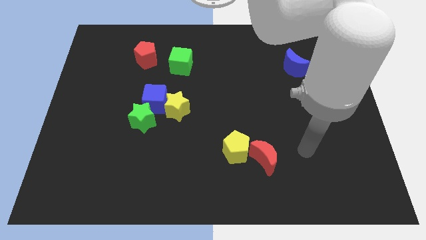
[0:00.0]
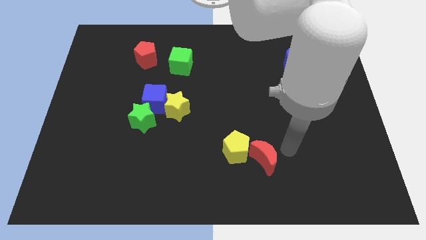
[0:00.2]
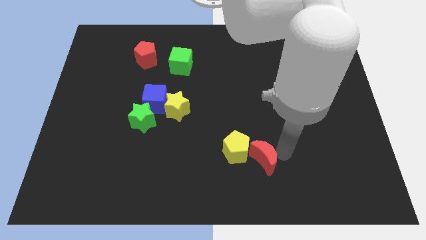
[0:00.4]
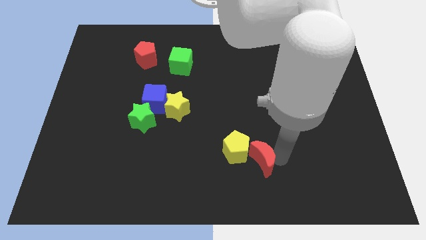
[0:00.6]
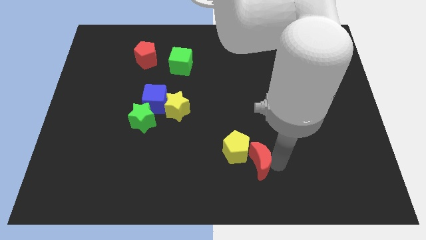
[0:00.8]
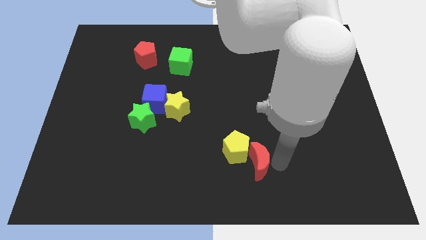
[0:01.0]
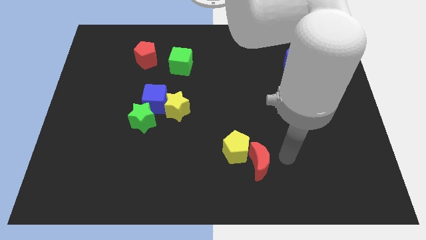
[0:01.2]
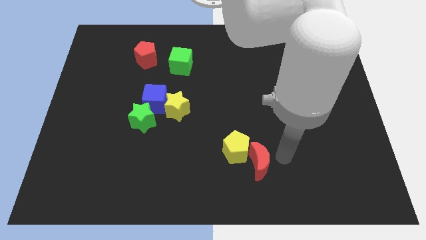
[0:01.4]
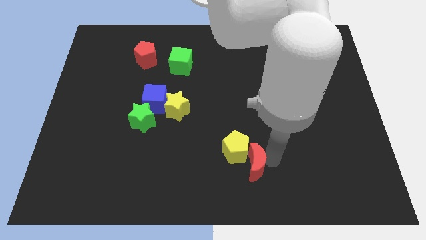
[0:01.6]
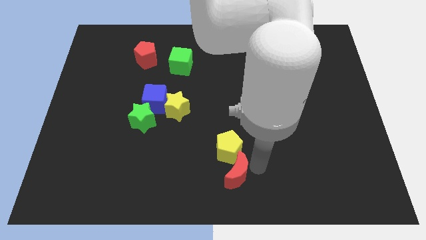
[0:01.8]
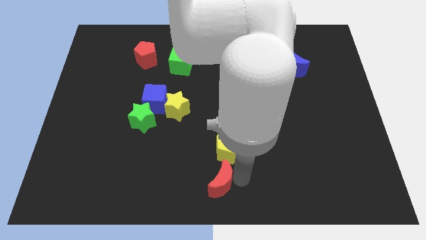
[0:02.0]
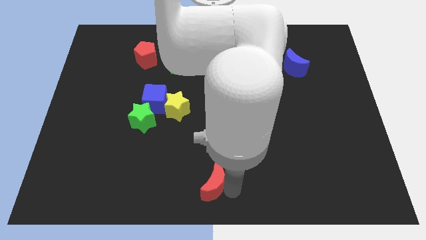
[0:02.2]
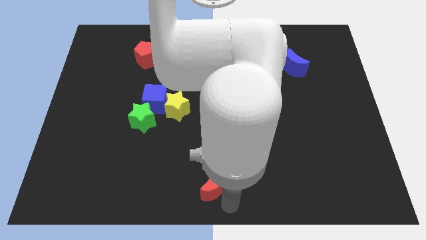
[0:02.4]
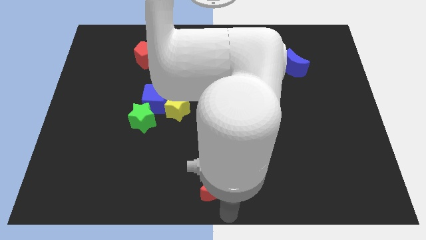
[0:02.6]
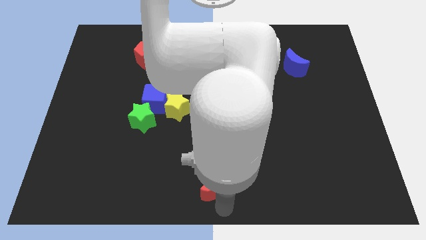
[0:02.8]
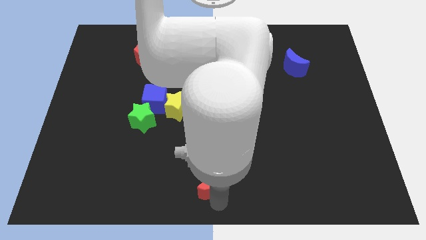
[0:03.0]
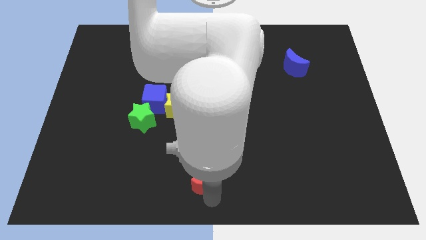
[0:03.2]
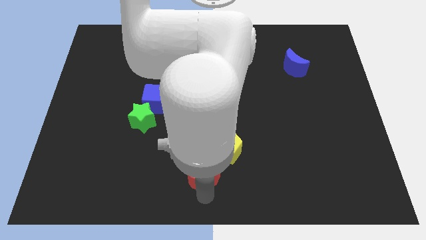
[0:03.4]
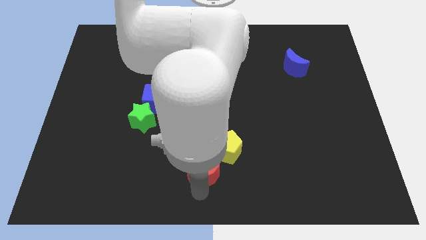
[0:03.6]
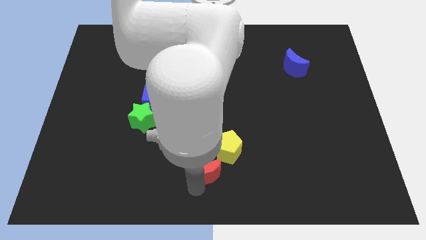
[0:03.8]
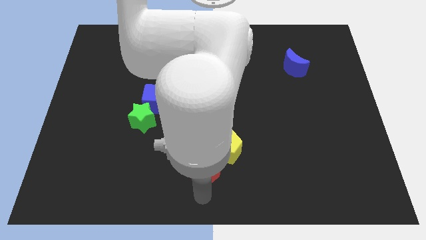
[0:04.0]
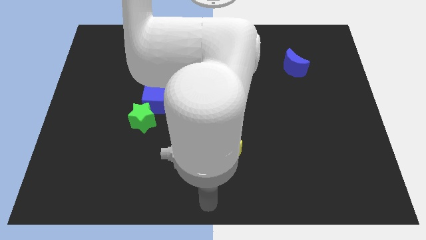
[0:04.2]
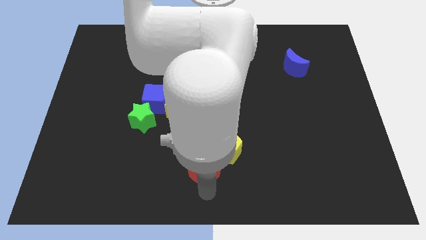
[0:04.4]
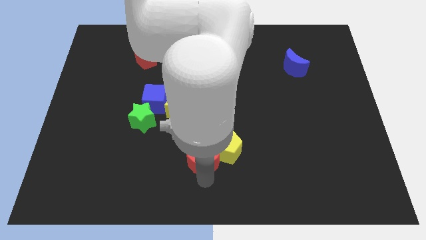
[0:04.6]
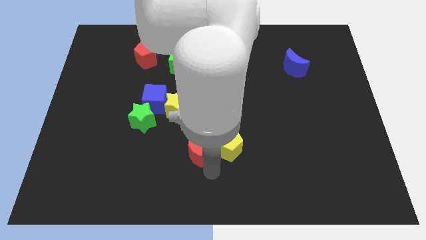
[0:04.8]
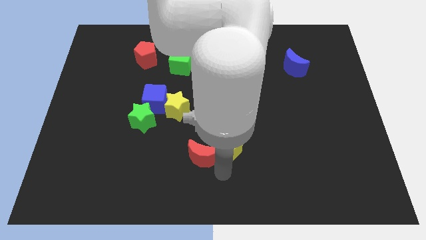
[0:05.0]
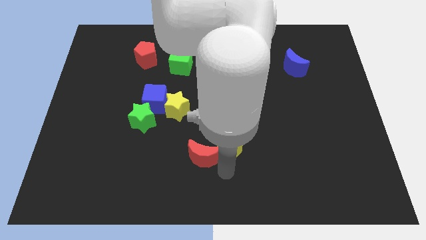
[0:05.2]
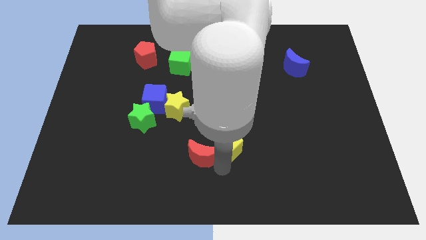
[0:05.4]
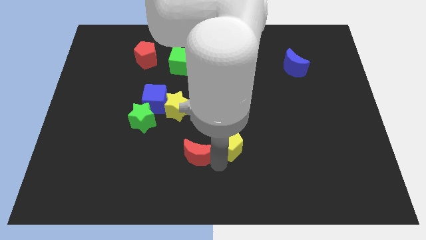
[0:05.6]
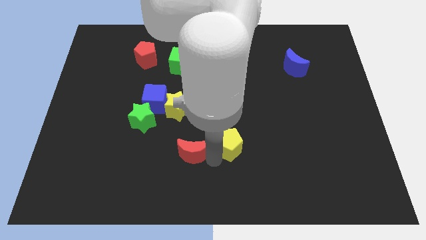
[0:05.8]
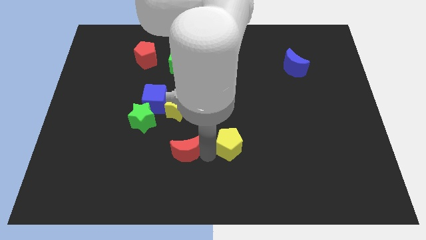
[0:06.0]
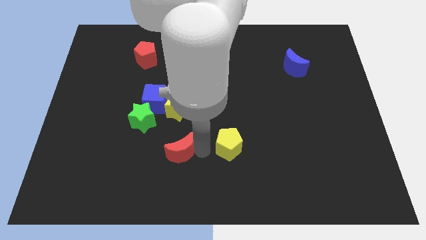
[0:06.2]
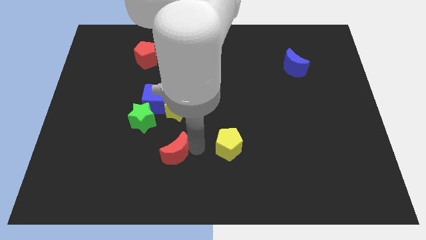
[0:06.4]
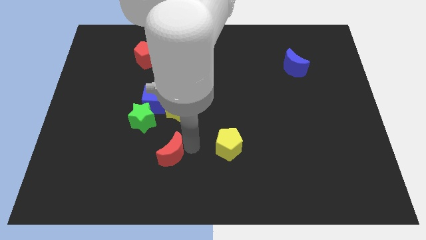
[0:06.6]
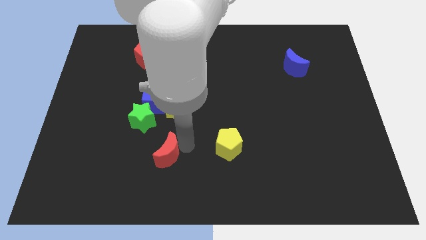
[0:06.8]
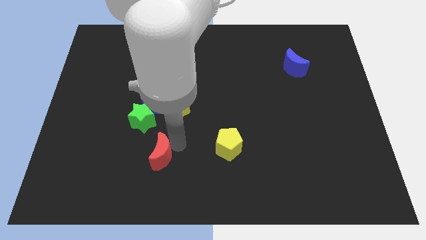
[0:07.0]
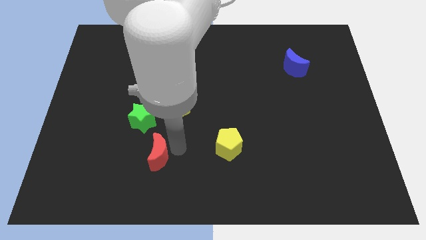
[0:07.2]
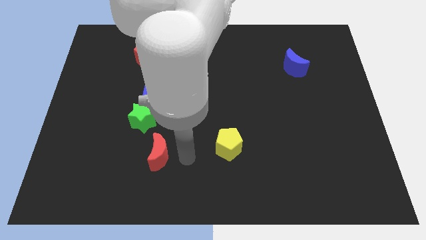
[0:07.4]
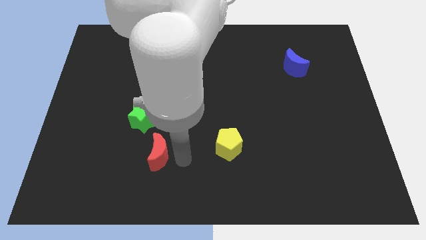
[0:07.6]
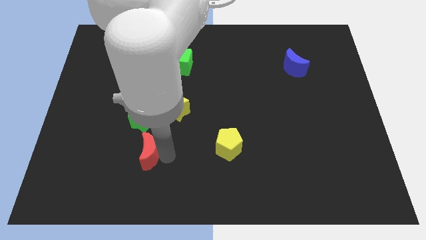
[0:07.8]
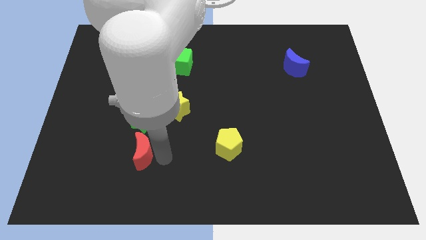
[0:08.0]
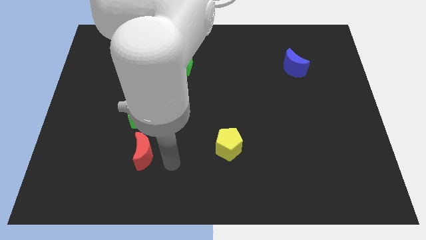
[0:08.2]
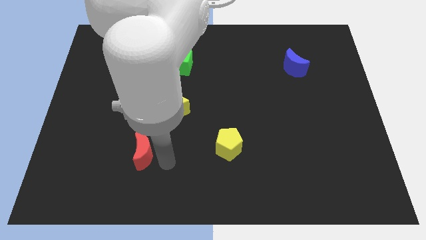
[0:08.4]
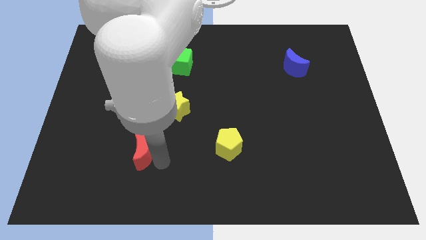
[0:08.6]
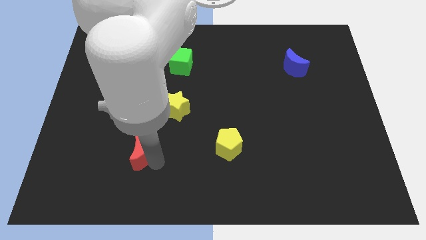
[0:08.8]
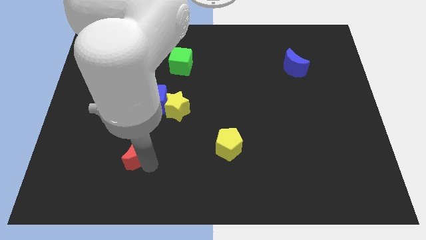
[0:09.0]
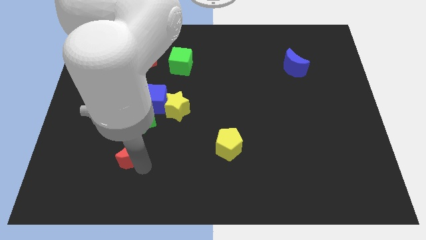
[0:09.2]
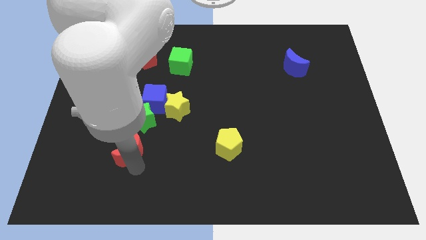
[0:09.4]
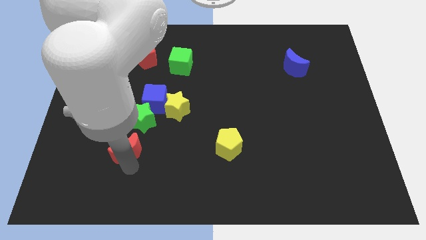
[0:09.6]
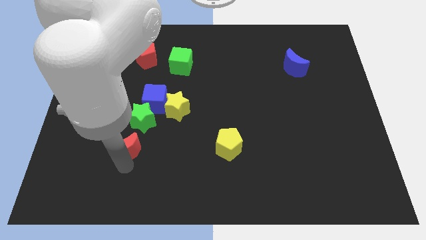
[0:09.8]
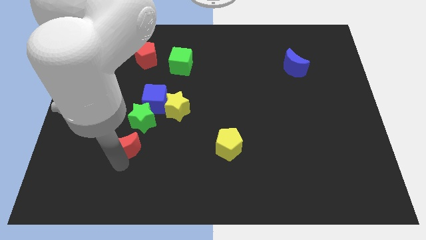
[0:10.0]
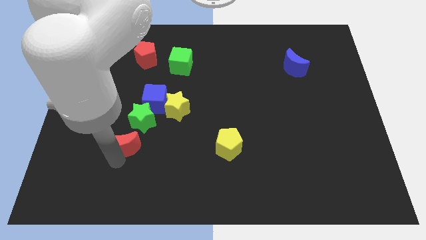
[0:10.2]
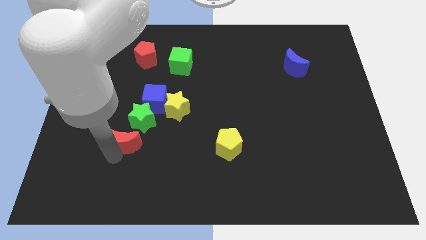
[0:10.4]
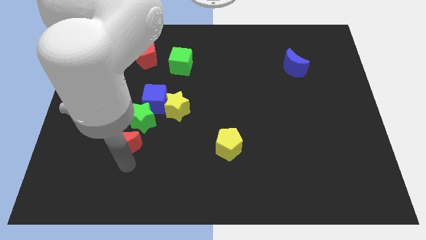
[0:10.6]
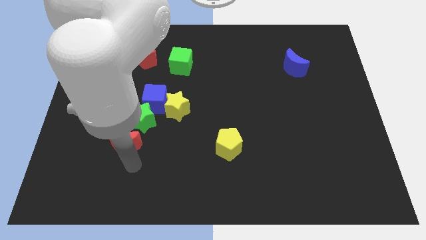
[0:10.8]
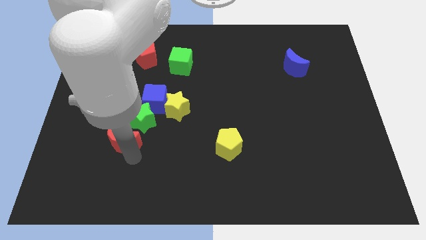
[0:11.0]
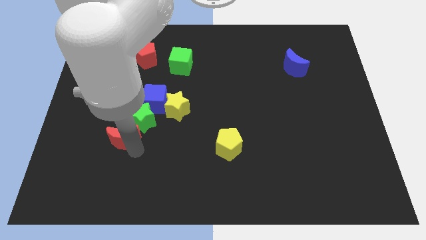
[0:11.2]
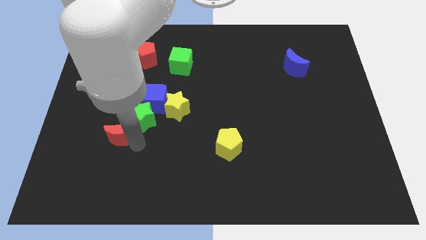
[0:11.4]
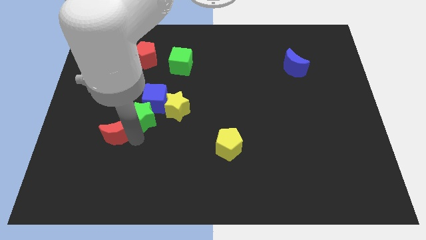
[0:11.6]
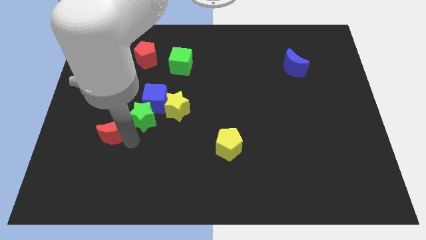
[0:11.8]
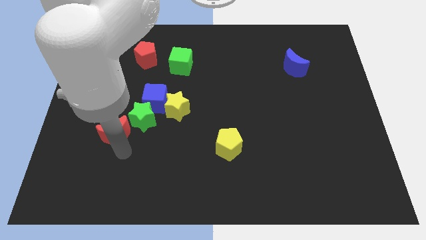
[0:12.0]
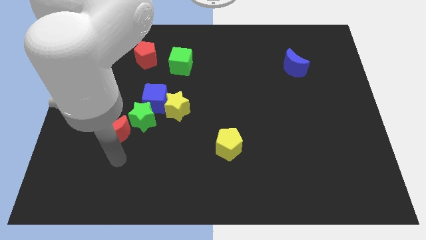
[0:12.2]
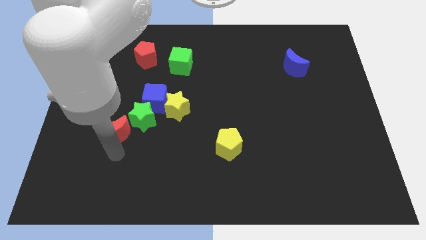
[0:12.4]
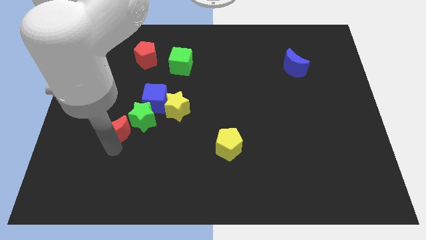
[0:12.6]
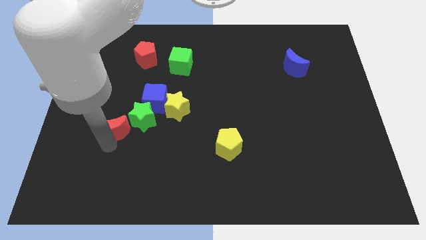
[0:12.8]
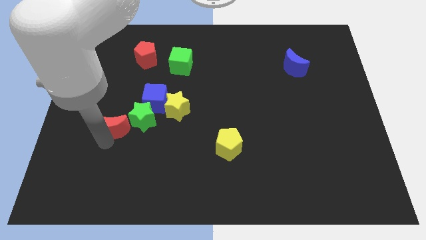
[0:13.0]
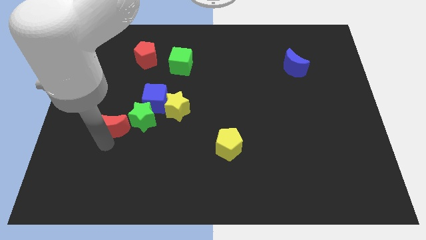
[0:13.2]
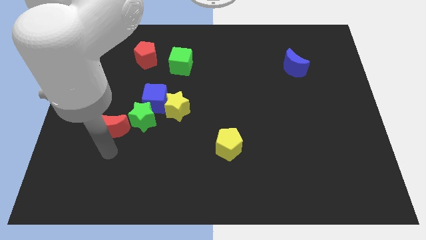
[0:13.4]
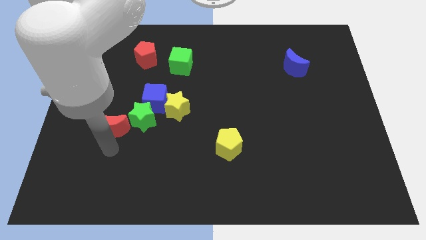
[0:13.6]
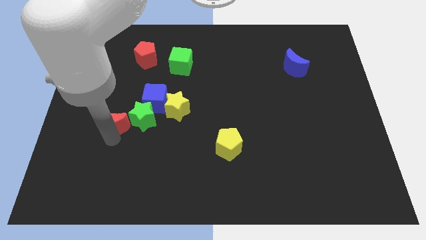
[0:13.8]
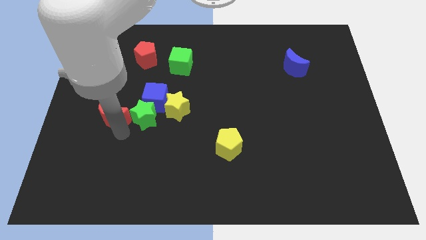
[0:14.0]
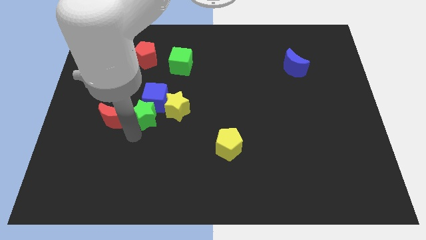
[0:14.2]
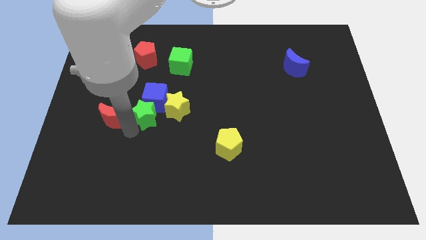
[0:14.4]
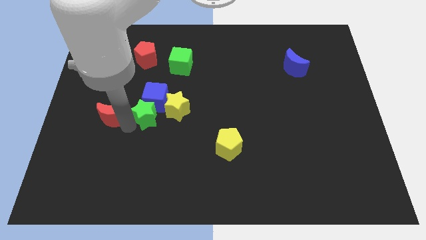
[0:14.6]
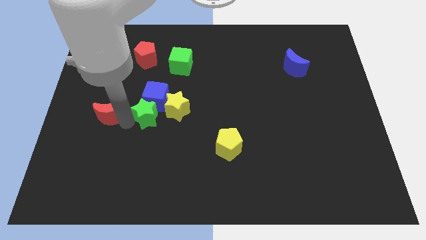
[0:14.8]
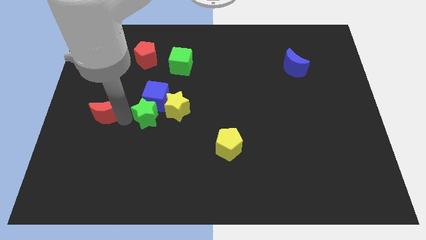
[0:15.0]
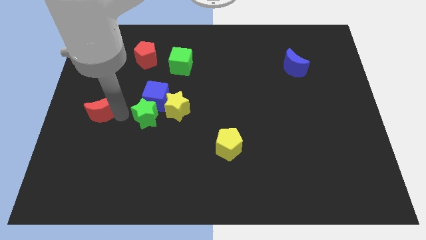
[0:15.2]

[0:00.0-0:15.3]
move the red moon to the left side of the board
